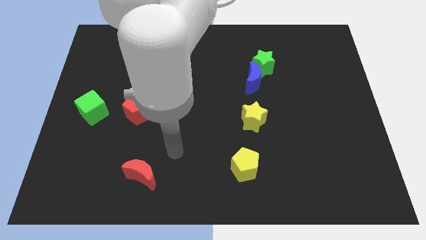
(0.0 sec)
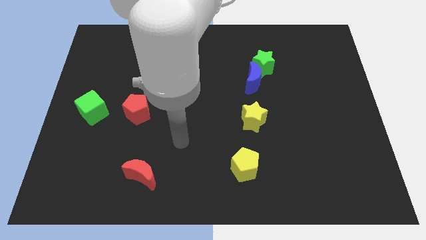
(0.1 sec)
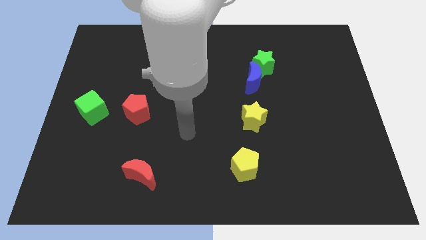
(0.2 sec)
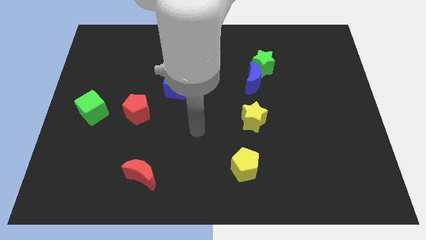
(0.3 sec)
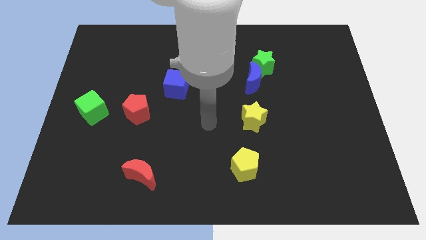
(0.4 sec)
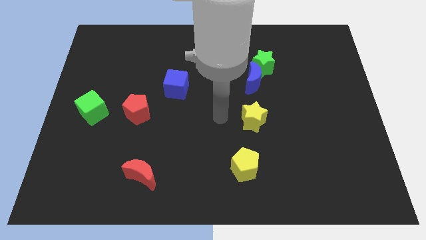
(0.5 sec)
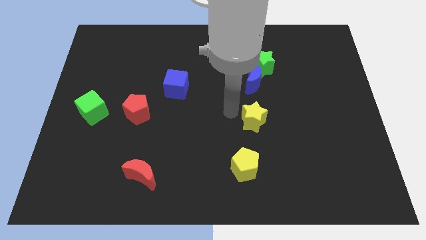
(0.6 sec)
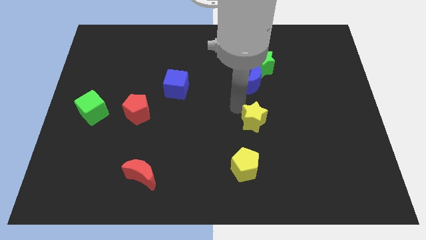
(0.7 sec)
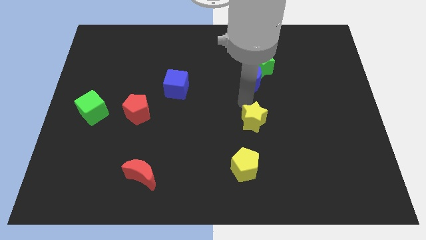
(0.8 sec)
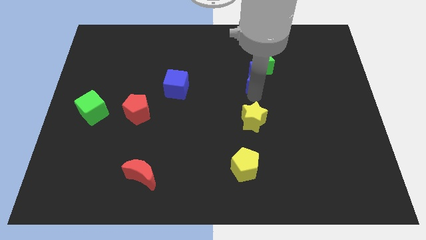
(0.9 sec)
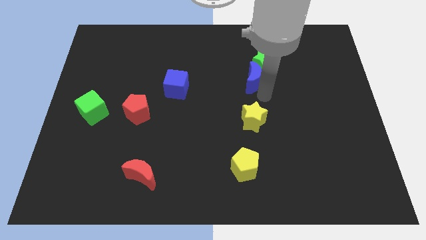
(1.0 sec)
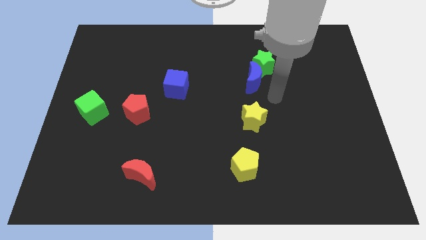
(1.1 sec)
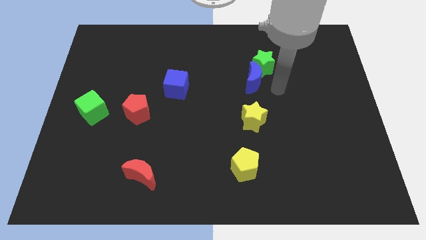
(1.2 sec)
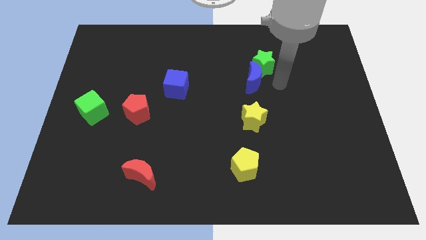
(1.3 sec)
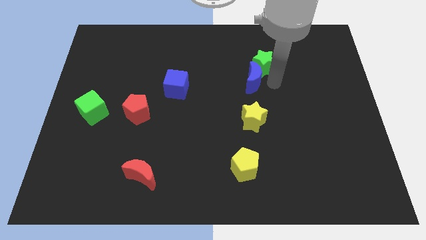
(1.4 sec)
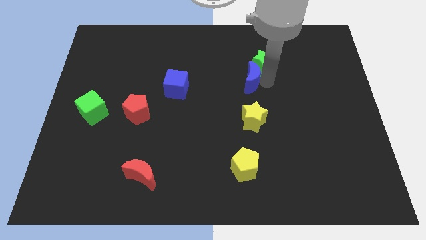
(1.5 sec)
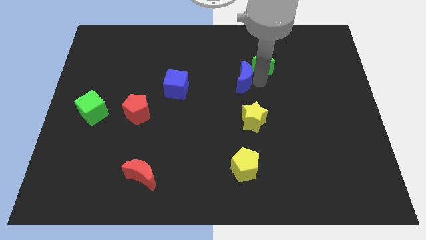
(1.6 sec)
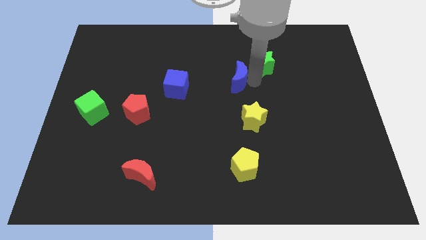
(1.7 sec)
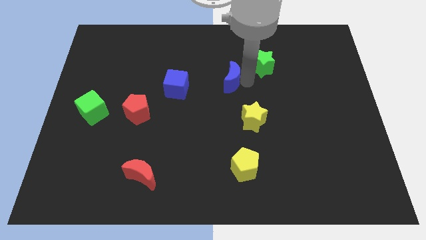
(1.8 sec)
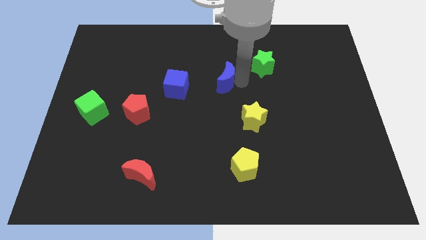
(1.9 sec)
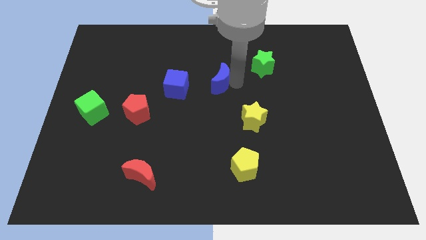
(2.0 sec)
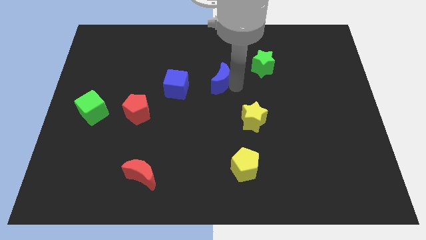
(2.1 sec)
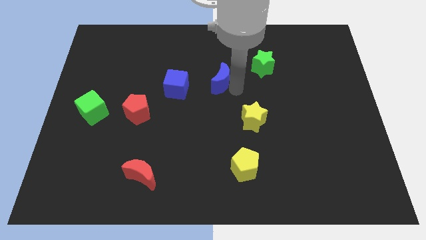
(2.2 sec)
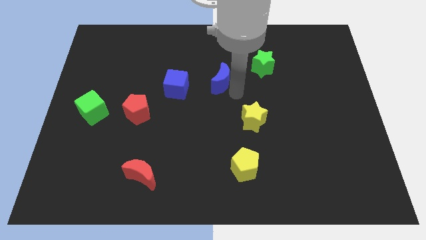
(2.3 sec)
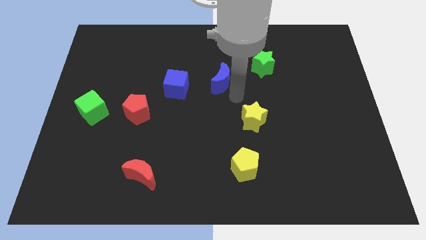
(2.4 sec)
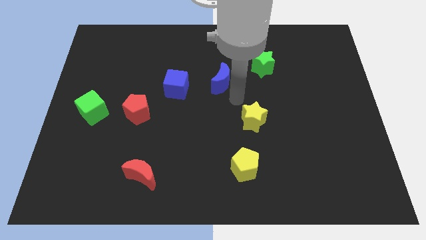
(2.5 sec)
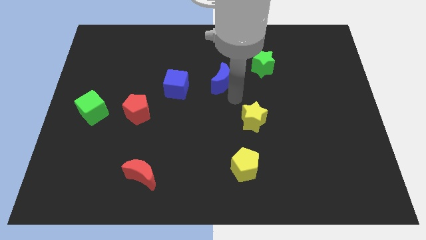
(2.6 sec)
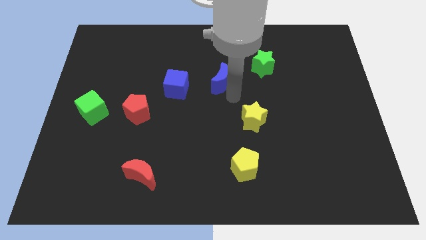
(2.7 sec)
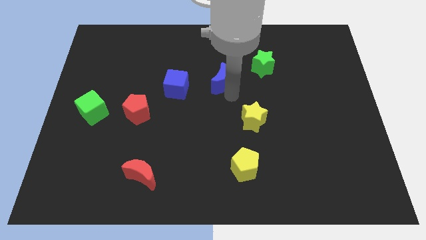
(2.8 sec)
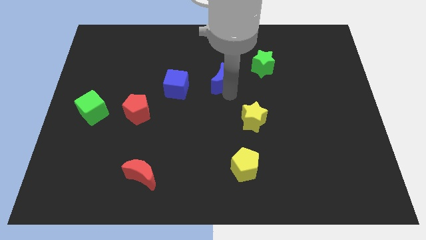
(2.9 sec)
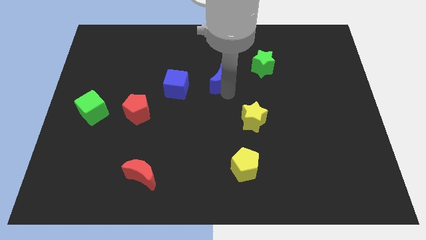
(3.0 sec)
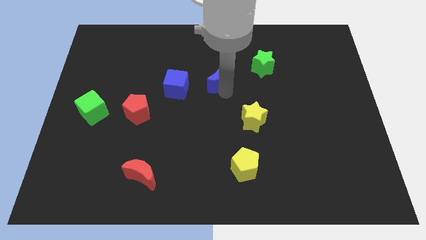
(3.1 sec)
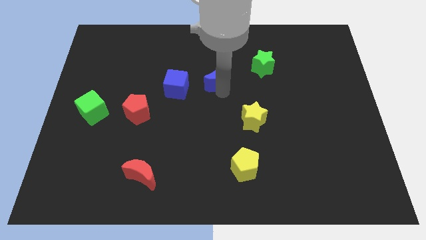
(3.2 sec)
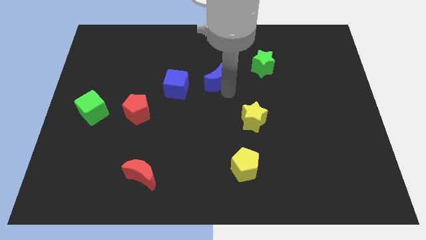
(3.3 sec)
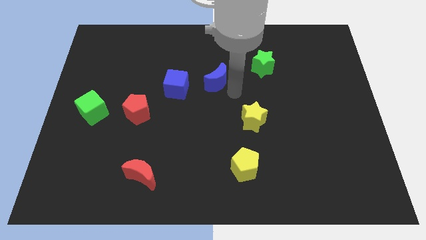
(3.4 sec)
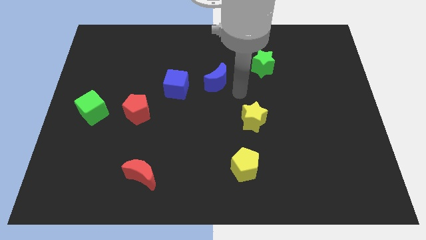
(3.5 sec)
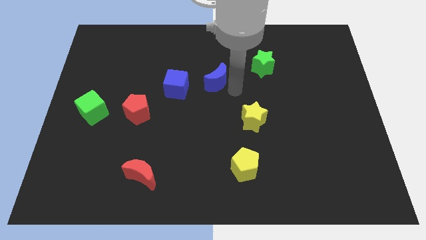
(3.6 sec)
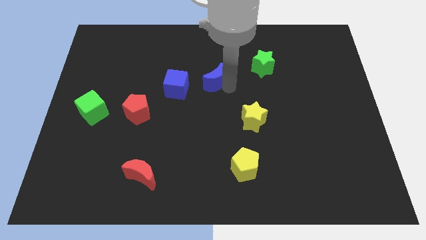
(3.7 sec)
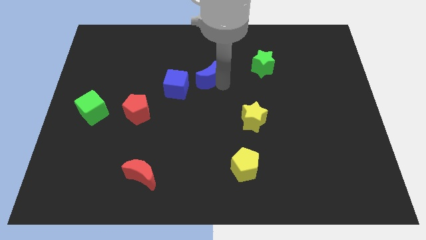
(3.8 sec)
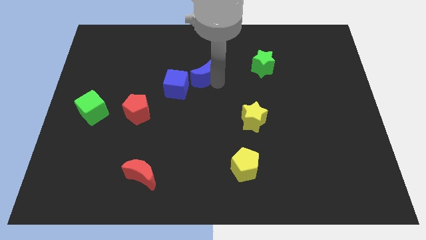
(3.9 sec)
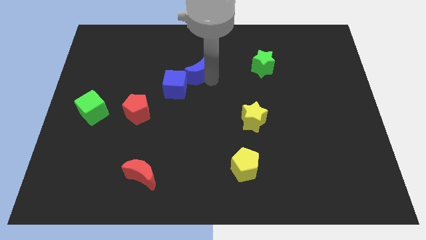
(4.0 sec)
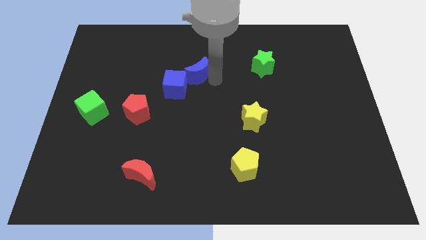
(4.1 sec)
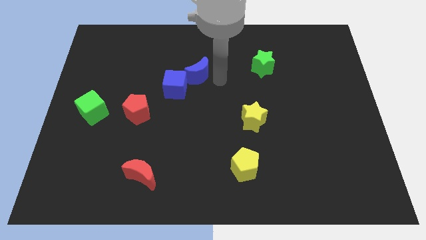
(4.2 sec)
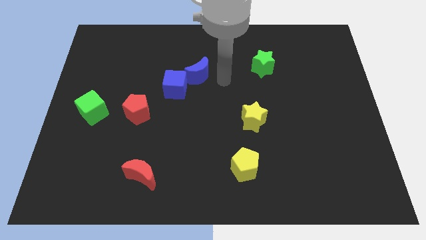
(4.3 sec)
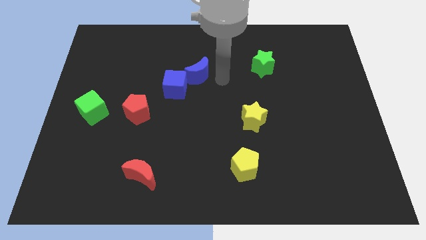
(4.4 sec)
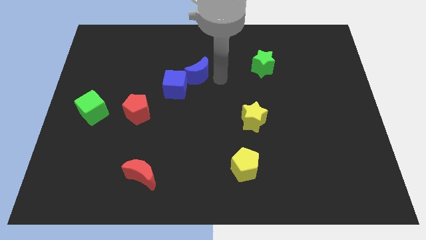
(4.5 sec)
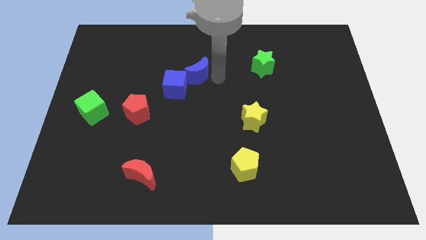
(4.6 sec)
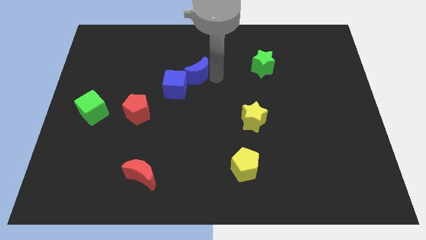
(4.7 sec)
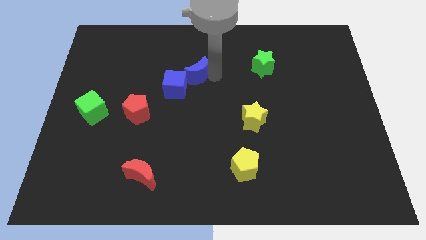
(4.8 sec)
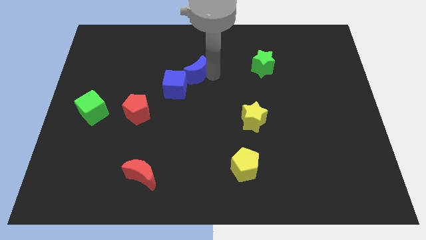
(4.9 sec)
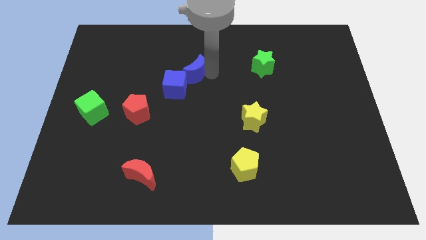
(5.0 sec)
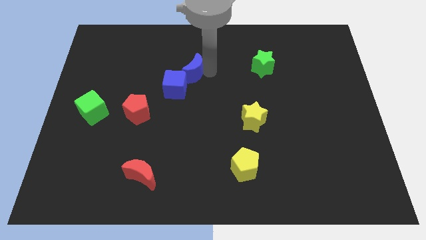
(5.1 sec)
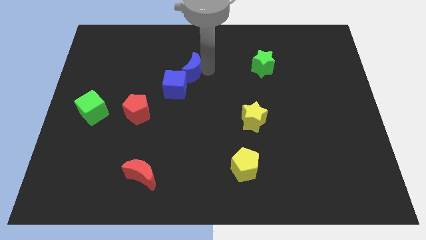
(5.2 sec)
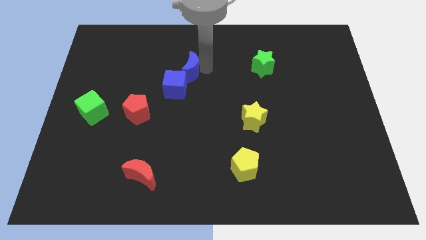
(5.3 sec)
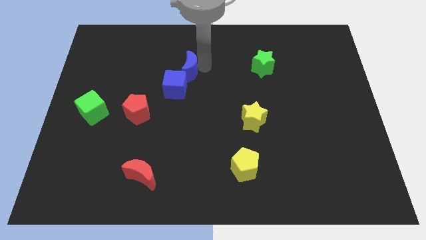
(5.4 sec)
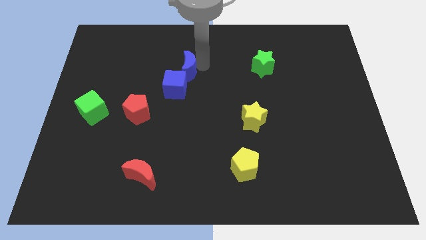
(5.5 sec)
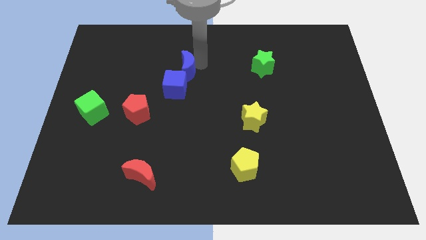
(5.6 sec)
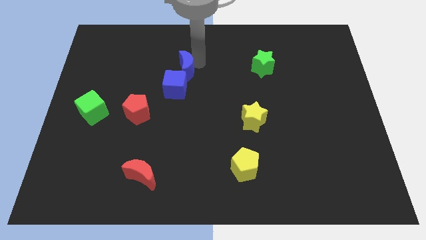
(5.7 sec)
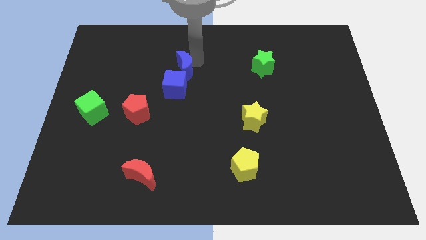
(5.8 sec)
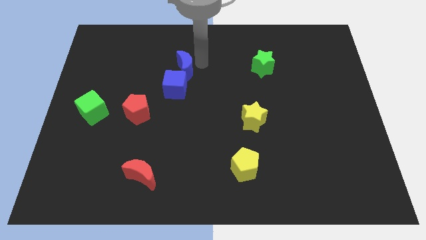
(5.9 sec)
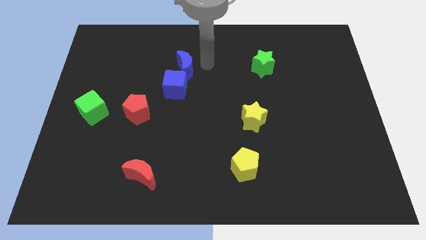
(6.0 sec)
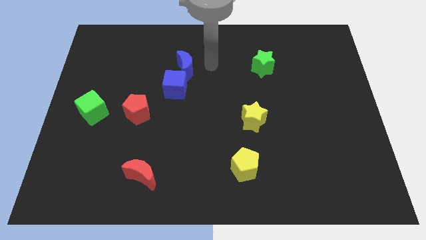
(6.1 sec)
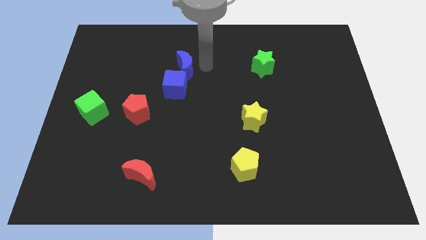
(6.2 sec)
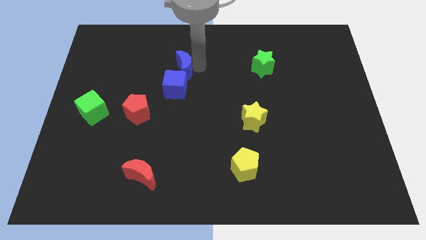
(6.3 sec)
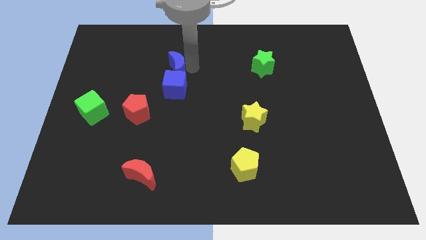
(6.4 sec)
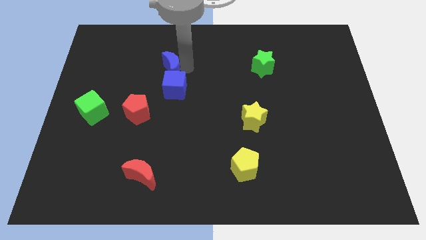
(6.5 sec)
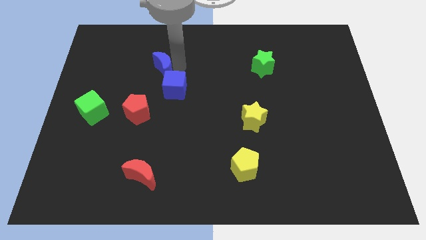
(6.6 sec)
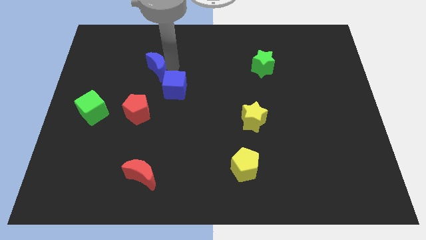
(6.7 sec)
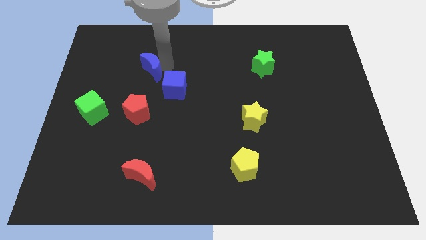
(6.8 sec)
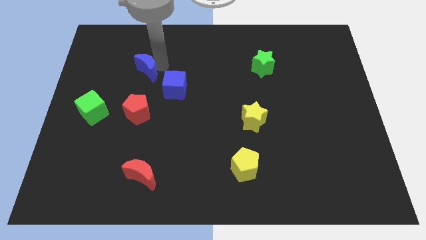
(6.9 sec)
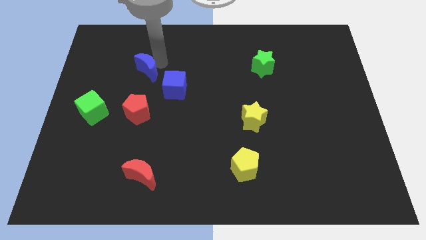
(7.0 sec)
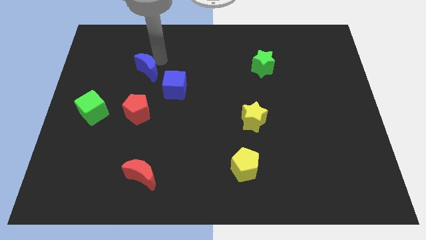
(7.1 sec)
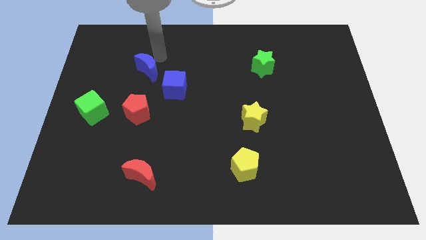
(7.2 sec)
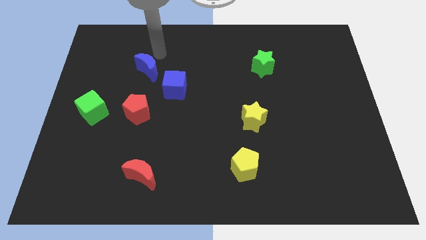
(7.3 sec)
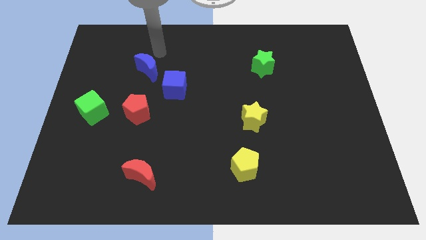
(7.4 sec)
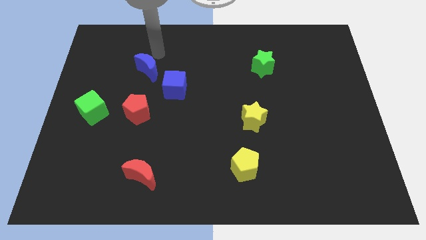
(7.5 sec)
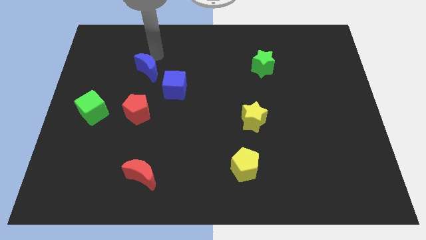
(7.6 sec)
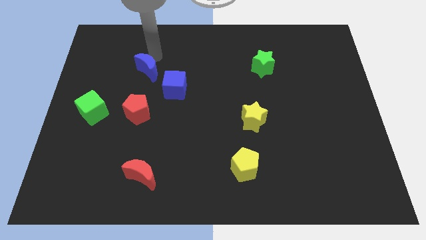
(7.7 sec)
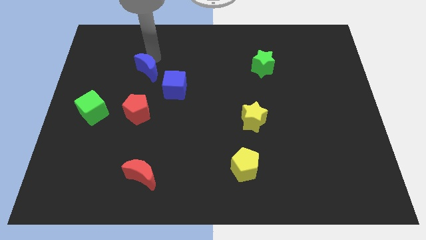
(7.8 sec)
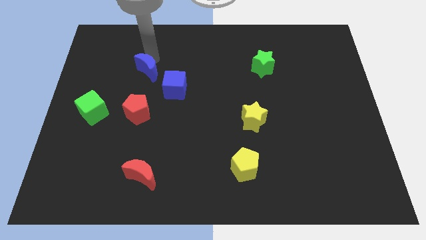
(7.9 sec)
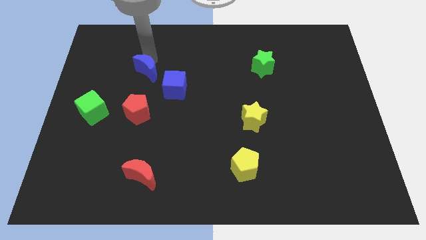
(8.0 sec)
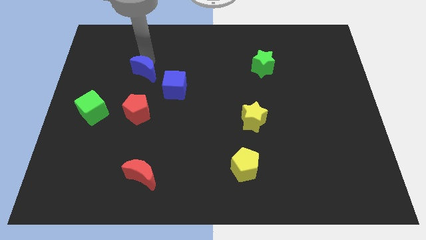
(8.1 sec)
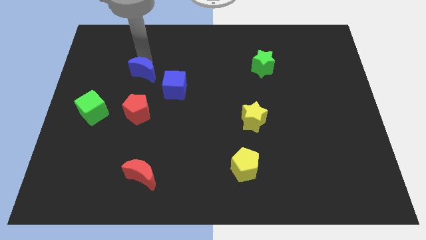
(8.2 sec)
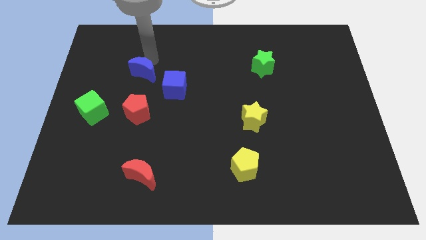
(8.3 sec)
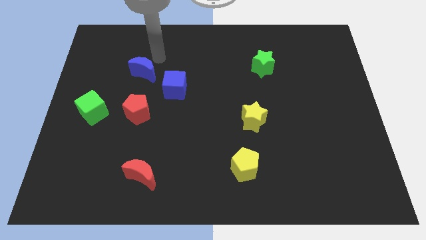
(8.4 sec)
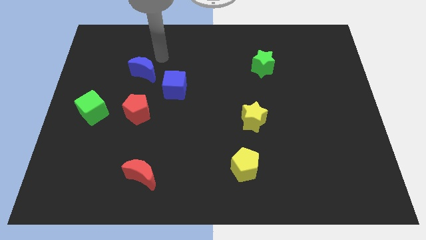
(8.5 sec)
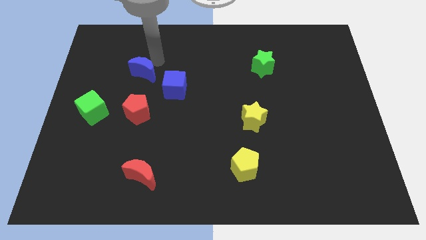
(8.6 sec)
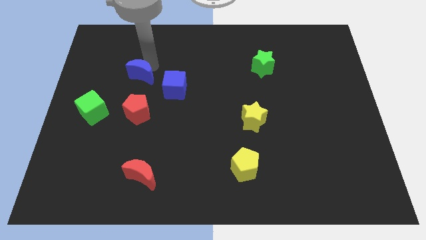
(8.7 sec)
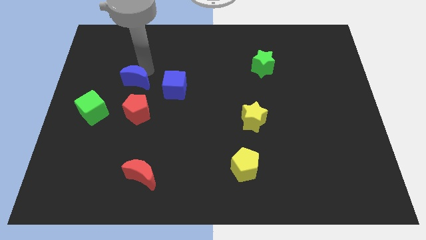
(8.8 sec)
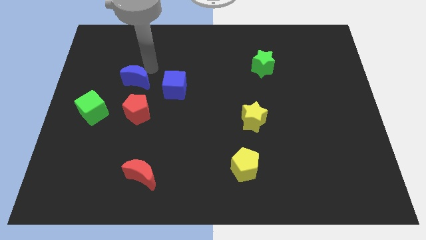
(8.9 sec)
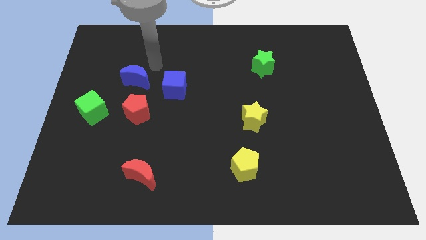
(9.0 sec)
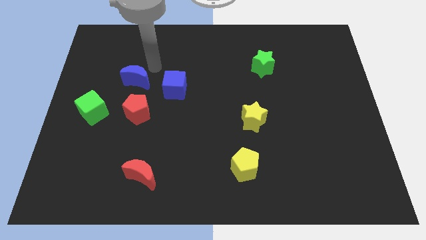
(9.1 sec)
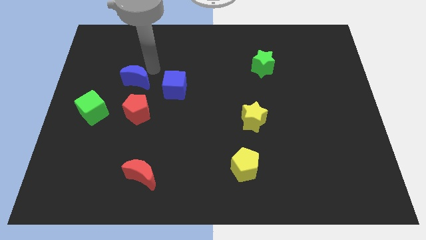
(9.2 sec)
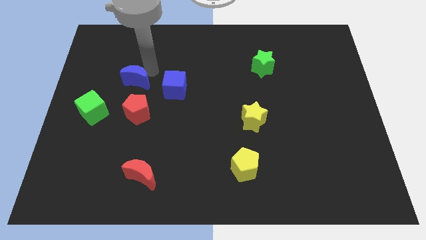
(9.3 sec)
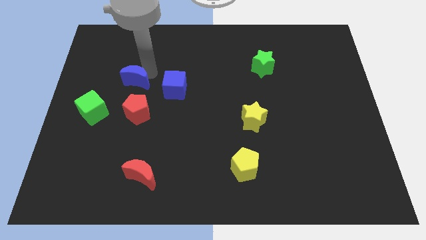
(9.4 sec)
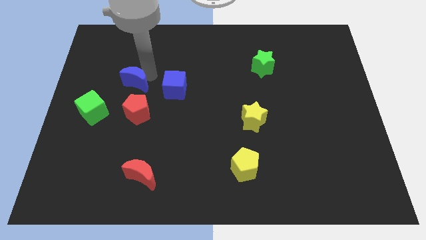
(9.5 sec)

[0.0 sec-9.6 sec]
move the blue moon diagonally up and to the right of the green cube
